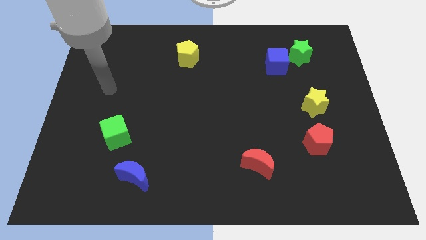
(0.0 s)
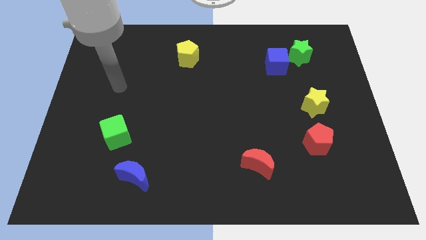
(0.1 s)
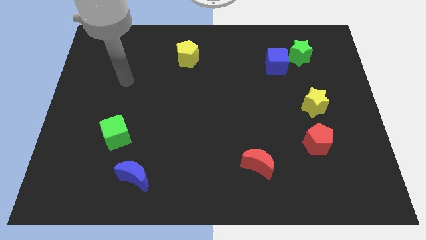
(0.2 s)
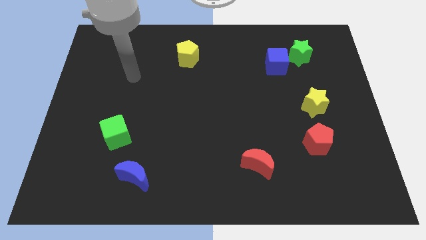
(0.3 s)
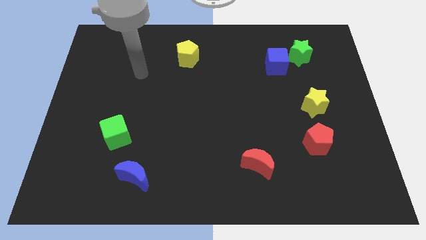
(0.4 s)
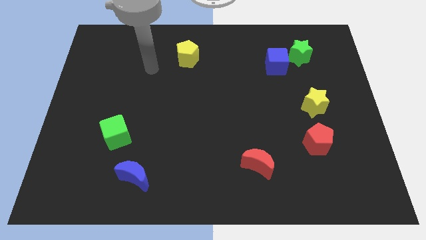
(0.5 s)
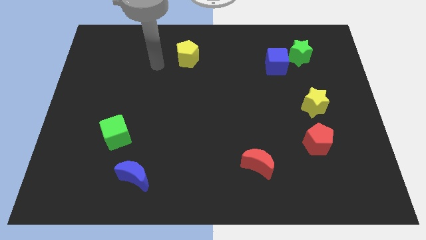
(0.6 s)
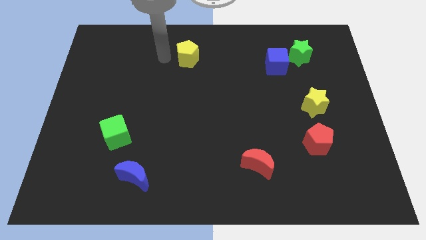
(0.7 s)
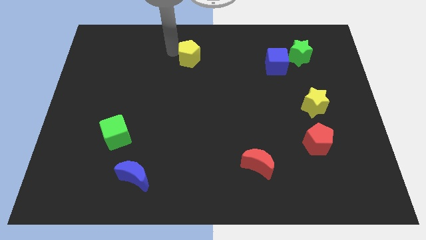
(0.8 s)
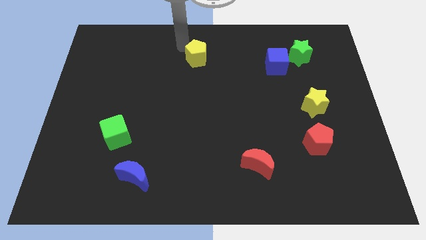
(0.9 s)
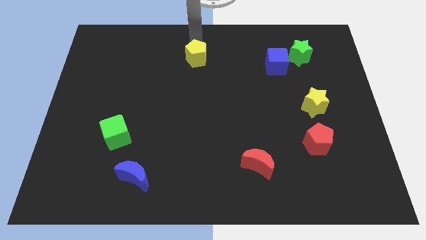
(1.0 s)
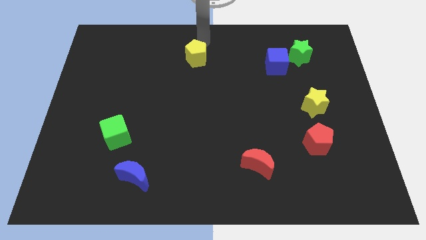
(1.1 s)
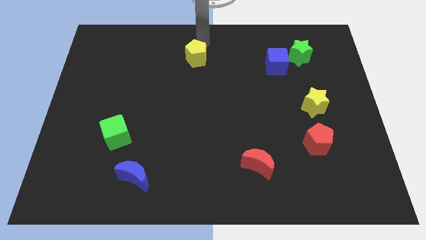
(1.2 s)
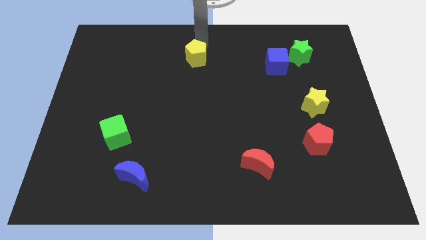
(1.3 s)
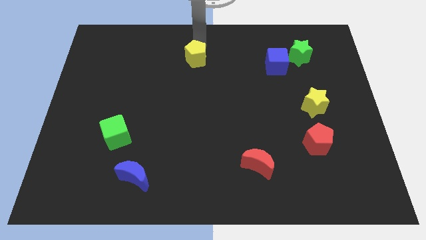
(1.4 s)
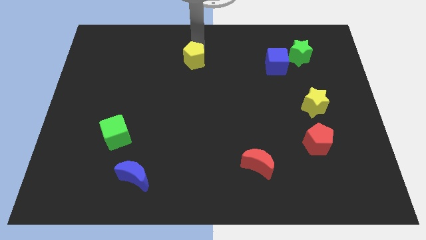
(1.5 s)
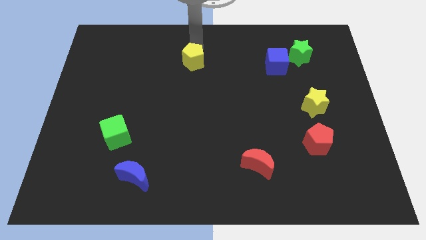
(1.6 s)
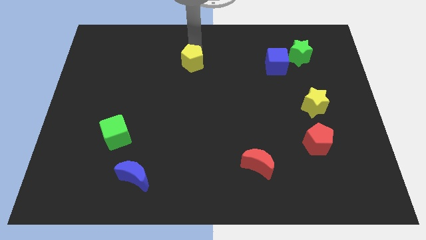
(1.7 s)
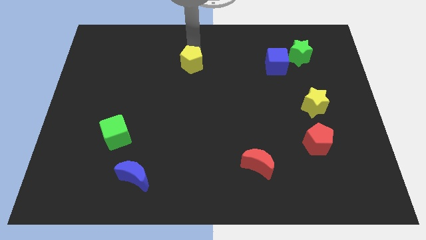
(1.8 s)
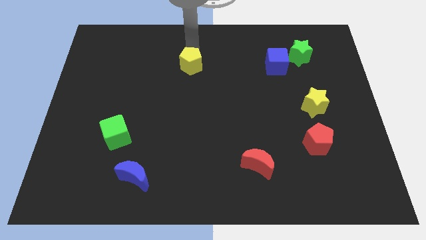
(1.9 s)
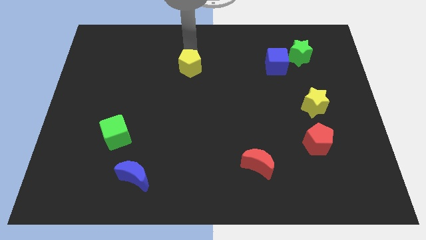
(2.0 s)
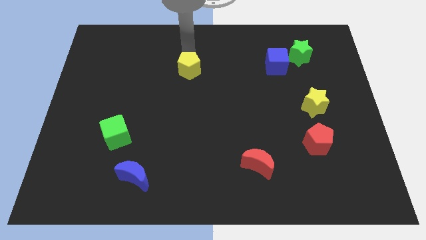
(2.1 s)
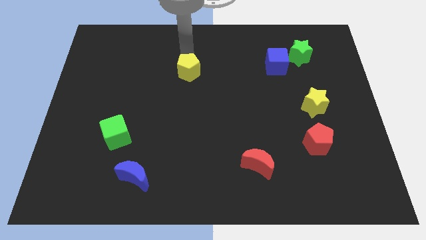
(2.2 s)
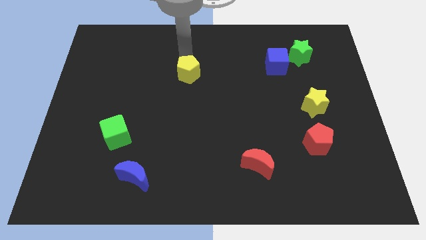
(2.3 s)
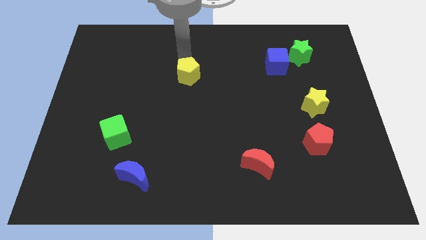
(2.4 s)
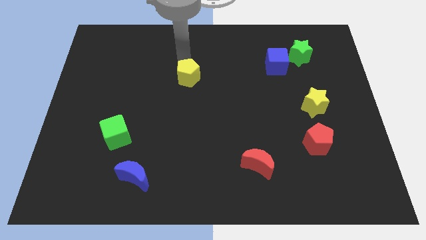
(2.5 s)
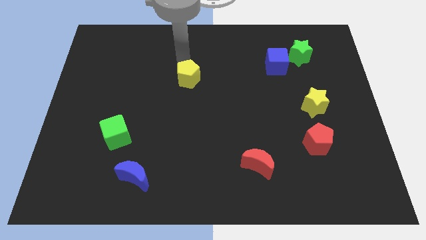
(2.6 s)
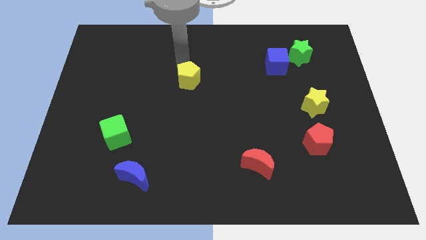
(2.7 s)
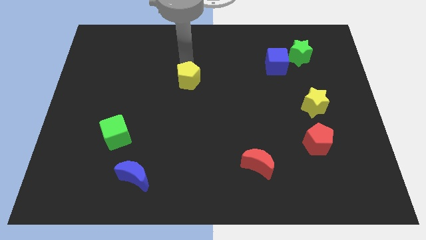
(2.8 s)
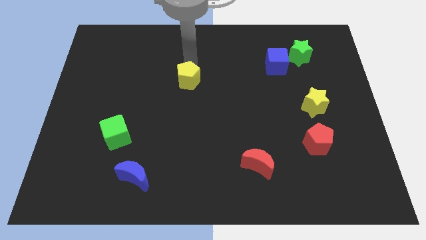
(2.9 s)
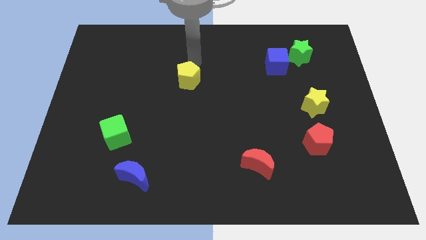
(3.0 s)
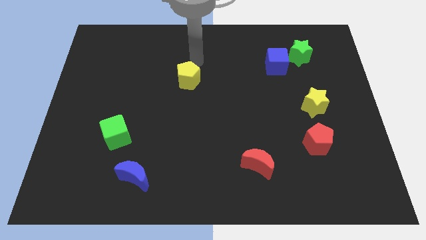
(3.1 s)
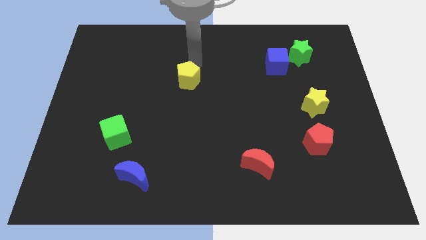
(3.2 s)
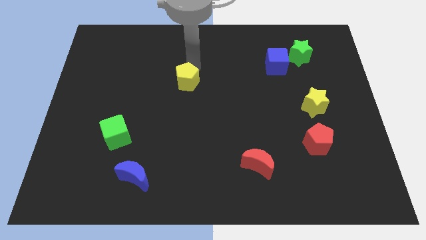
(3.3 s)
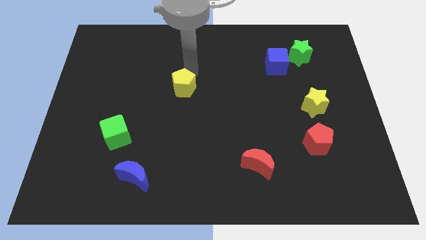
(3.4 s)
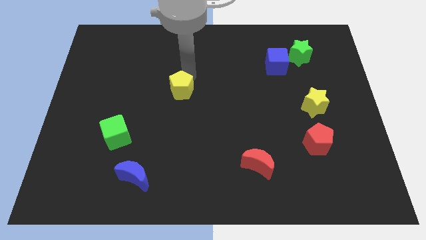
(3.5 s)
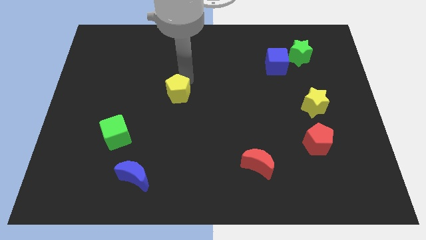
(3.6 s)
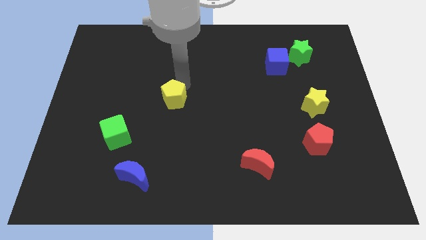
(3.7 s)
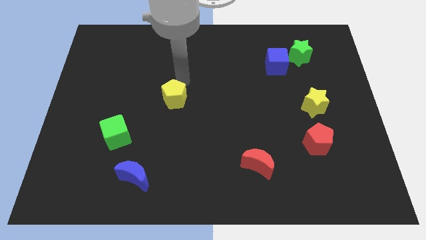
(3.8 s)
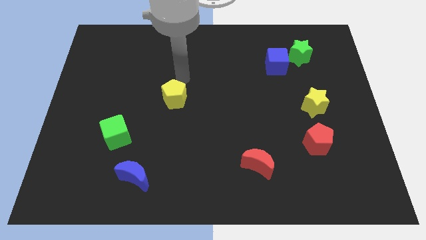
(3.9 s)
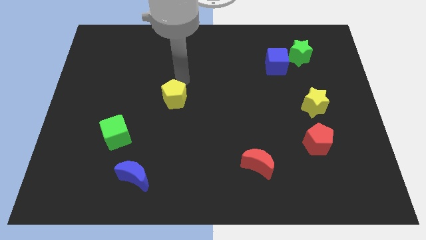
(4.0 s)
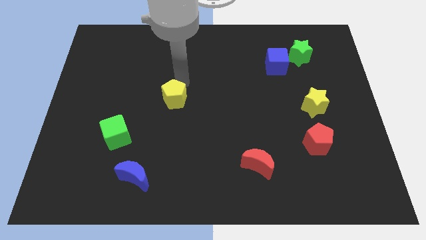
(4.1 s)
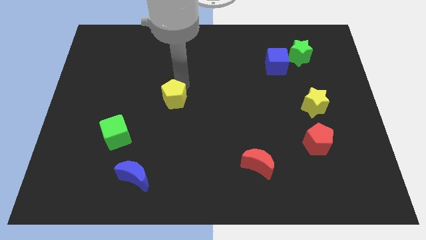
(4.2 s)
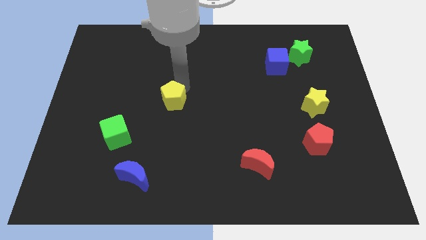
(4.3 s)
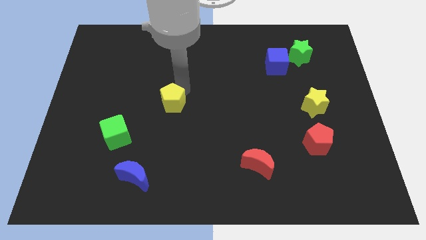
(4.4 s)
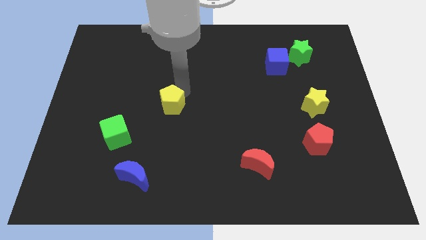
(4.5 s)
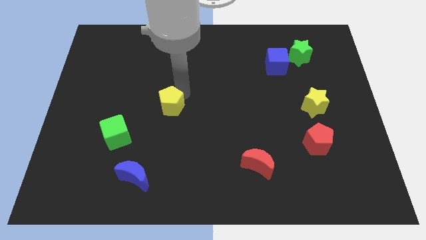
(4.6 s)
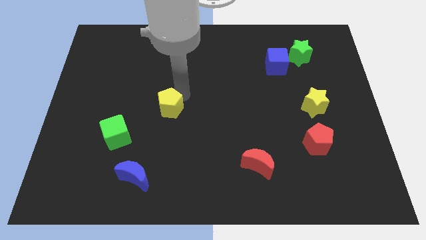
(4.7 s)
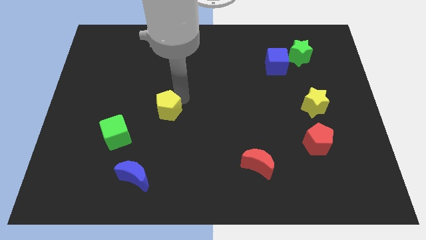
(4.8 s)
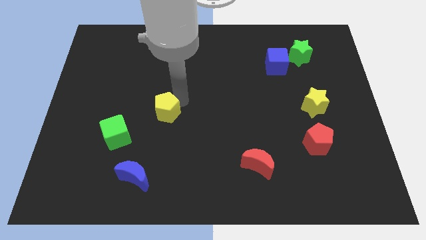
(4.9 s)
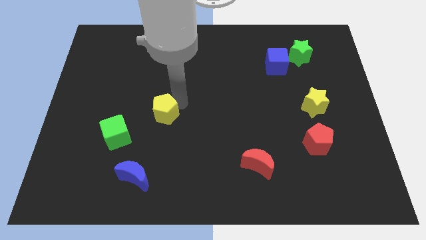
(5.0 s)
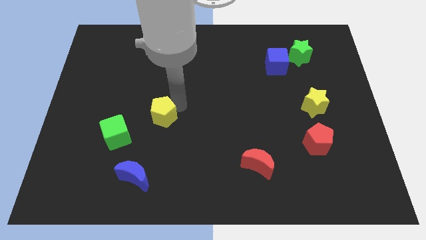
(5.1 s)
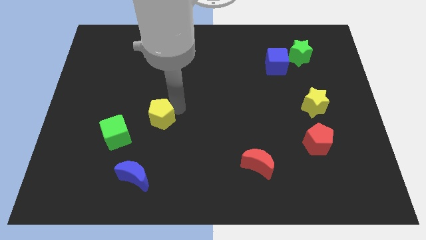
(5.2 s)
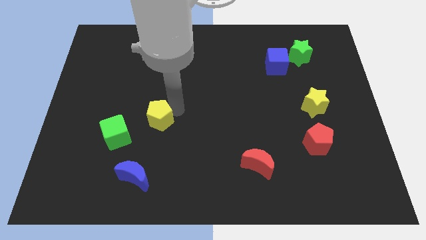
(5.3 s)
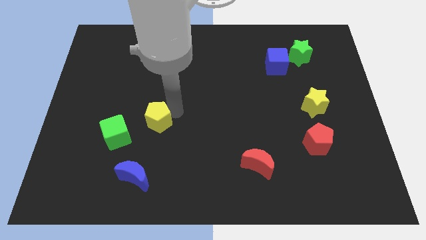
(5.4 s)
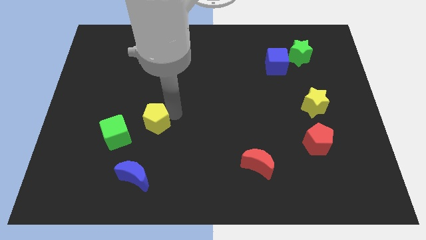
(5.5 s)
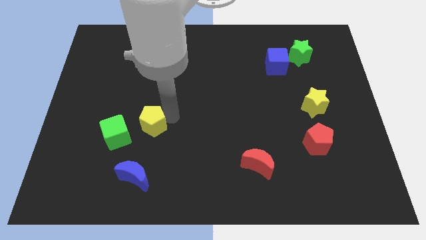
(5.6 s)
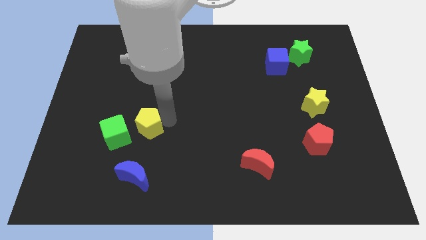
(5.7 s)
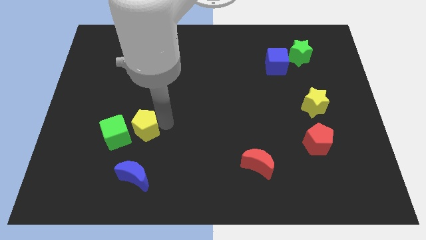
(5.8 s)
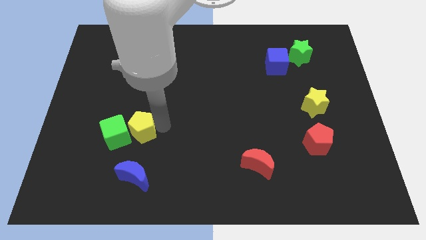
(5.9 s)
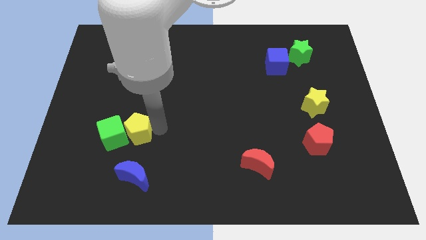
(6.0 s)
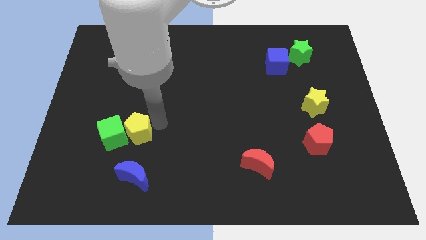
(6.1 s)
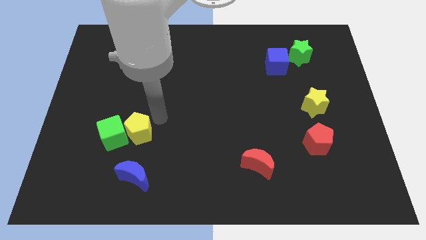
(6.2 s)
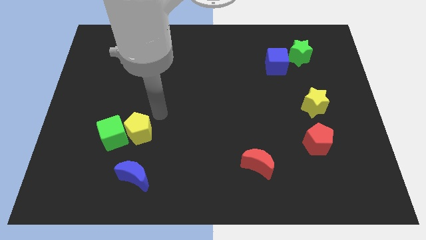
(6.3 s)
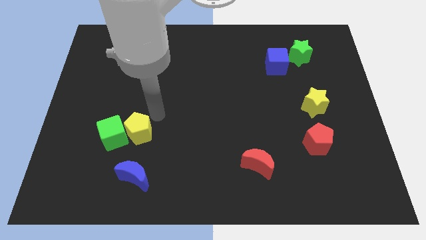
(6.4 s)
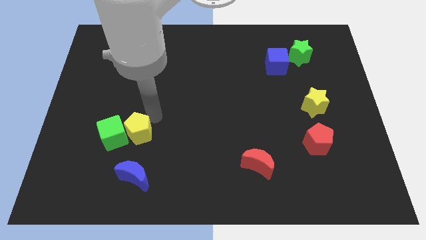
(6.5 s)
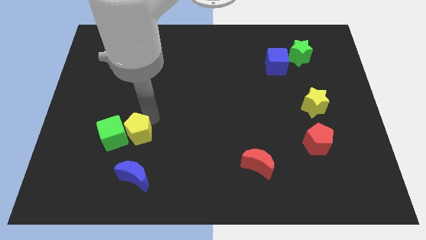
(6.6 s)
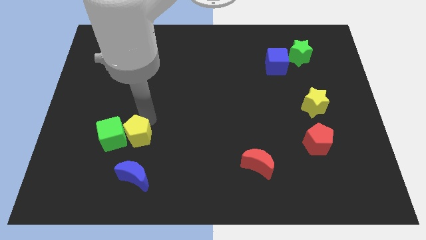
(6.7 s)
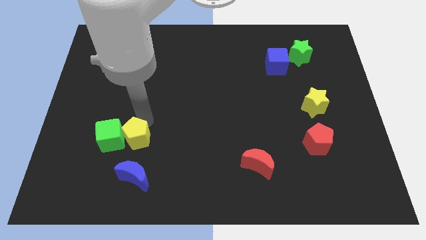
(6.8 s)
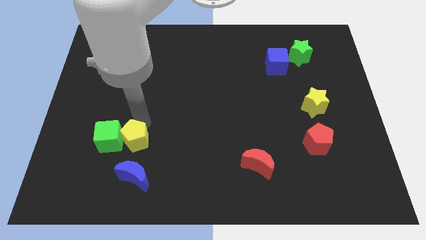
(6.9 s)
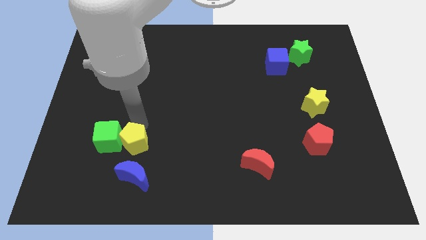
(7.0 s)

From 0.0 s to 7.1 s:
move the yellow pentagon to the top left side of the blue moon

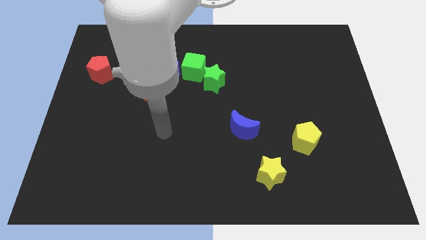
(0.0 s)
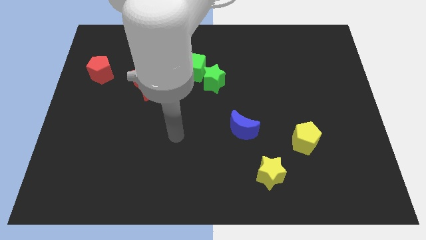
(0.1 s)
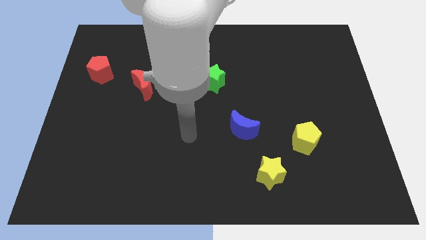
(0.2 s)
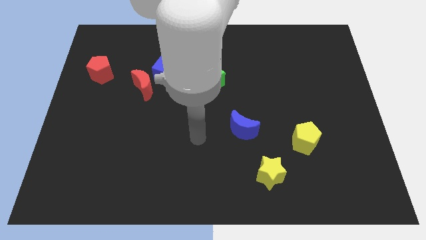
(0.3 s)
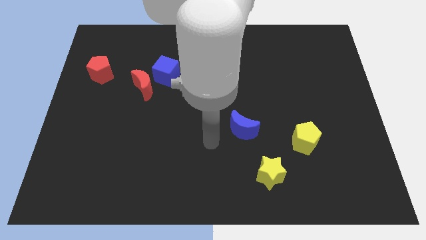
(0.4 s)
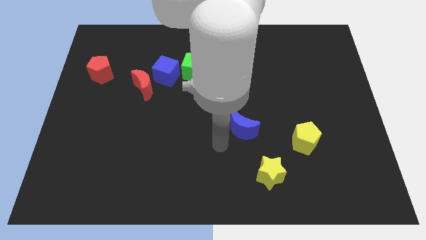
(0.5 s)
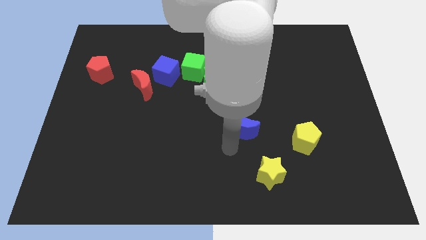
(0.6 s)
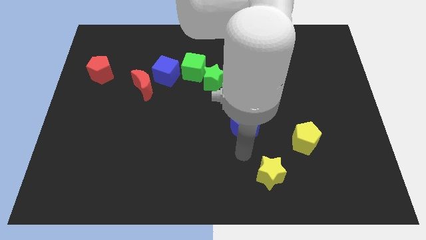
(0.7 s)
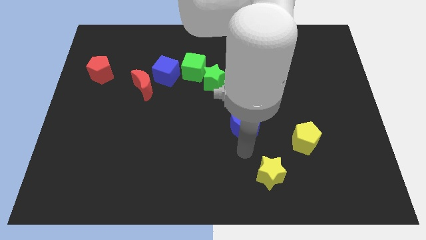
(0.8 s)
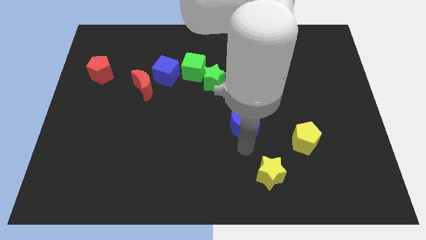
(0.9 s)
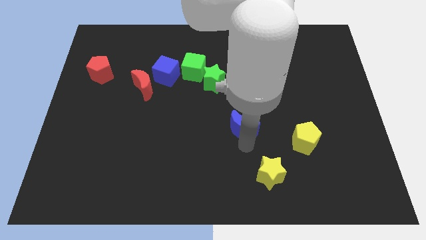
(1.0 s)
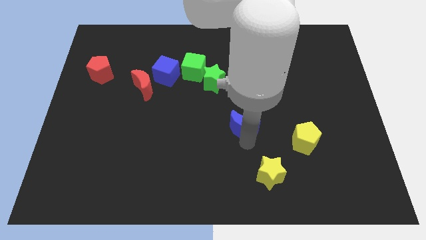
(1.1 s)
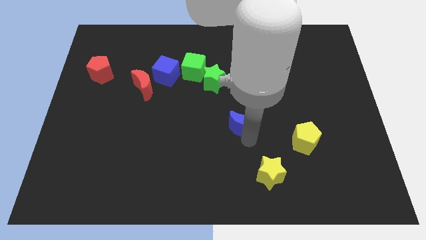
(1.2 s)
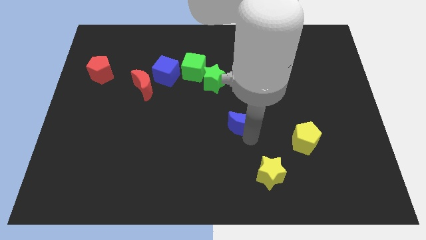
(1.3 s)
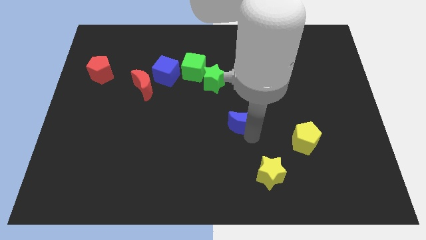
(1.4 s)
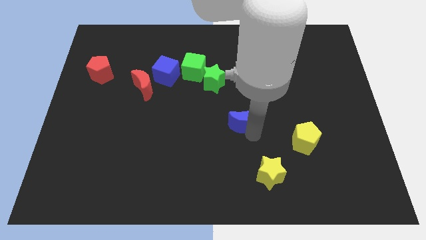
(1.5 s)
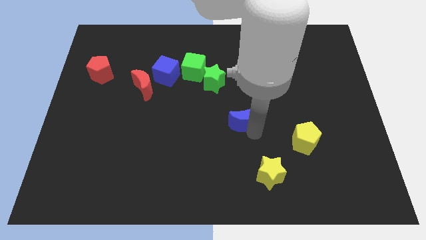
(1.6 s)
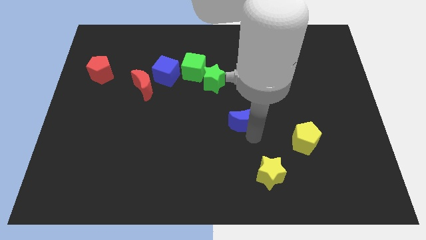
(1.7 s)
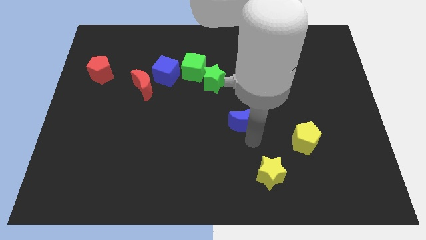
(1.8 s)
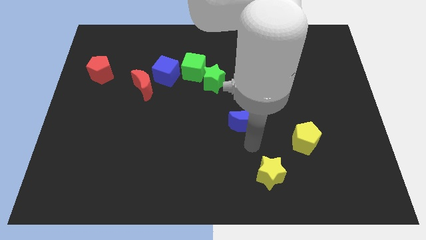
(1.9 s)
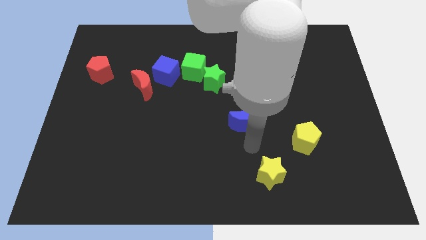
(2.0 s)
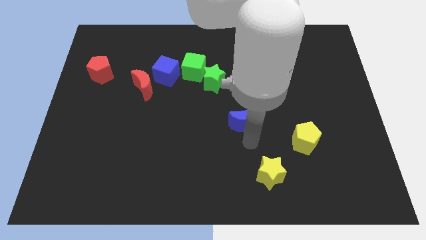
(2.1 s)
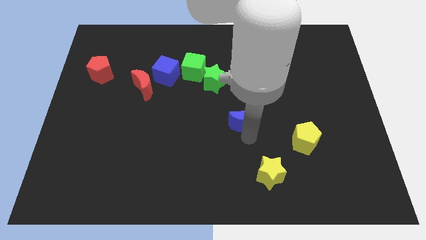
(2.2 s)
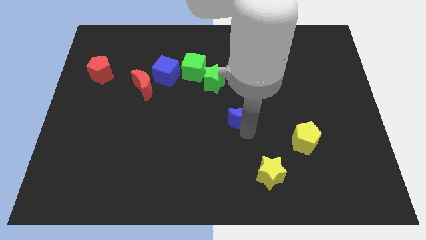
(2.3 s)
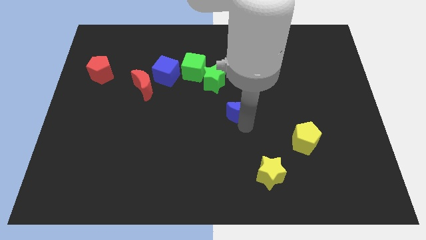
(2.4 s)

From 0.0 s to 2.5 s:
put the blue moon diagonally down and to the right of the green star
